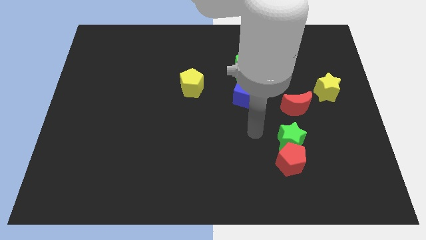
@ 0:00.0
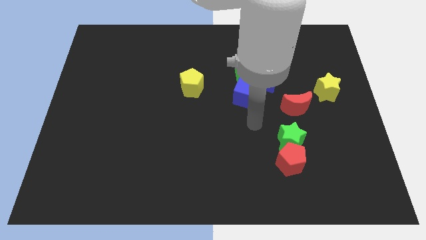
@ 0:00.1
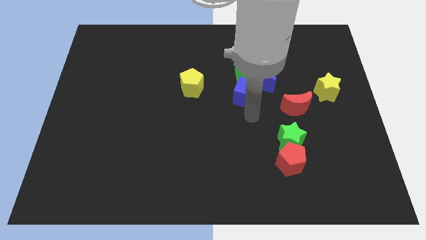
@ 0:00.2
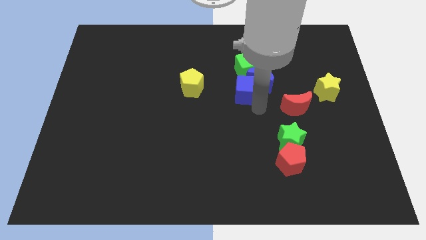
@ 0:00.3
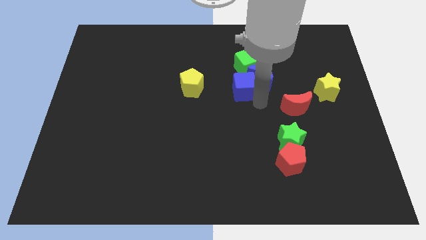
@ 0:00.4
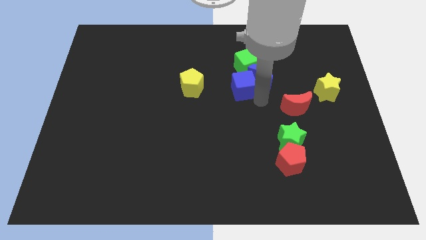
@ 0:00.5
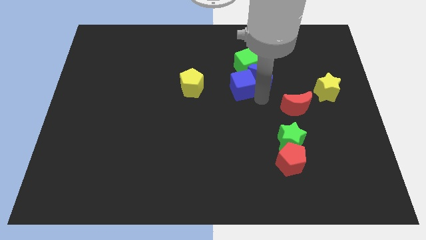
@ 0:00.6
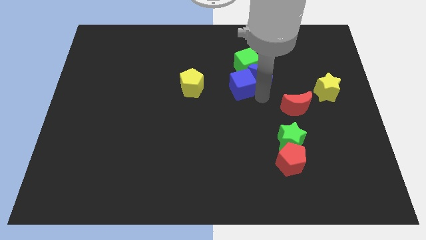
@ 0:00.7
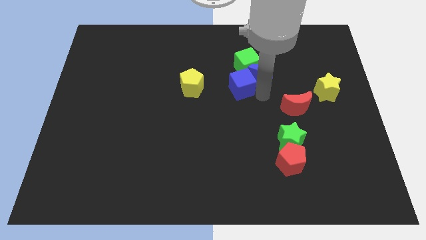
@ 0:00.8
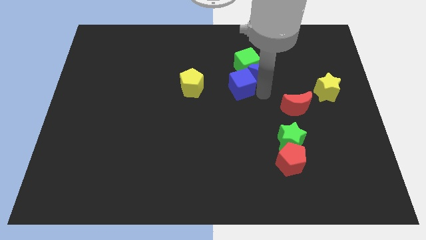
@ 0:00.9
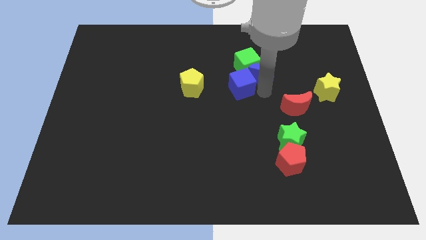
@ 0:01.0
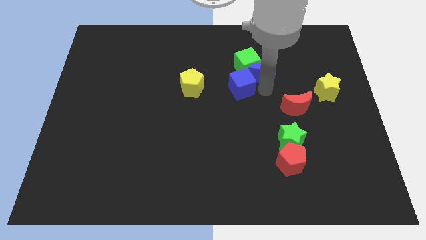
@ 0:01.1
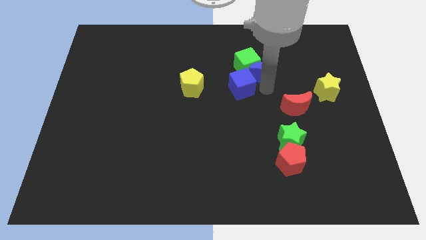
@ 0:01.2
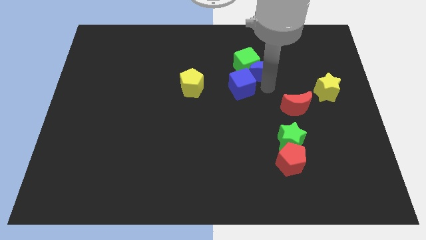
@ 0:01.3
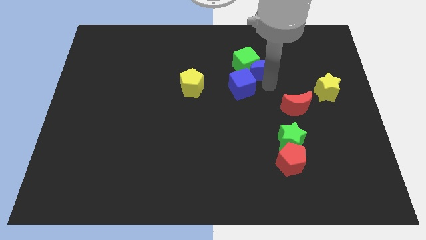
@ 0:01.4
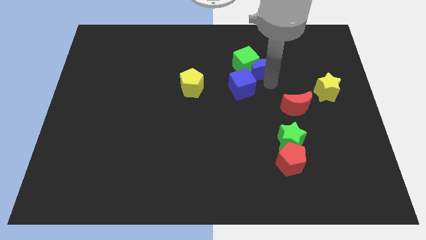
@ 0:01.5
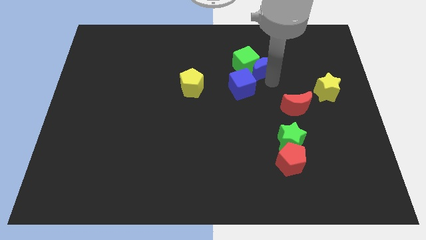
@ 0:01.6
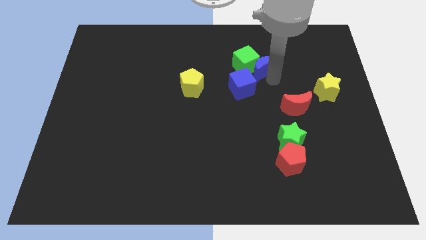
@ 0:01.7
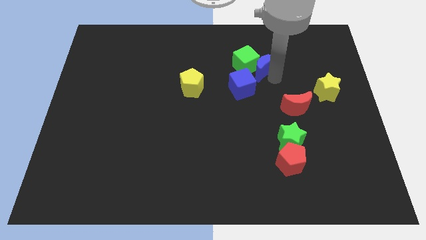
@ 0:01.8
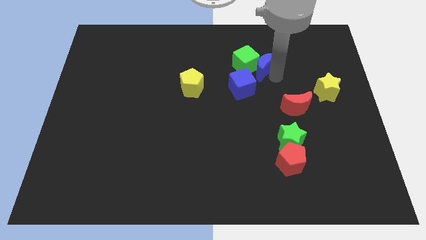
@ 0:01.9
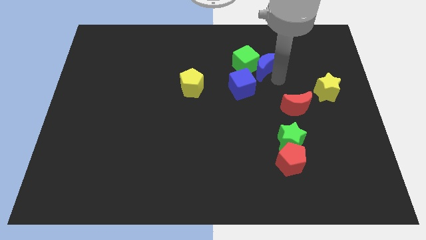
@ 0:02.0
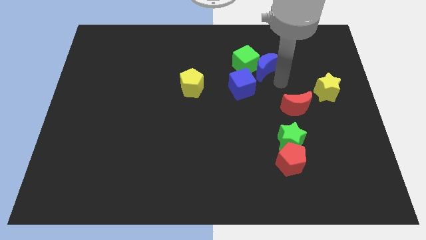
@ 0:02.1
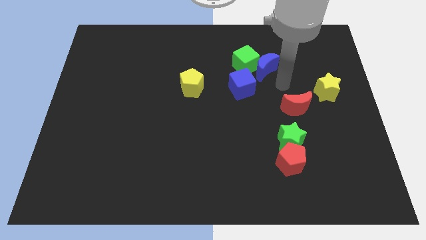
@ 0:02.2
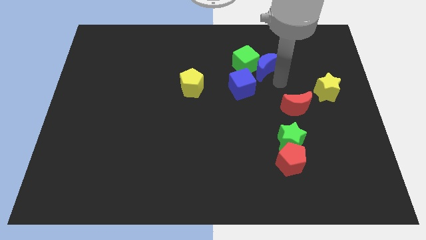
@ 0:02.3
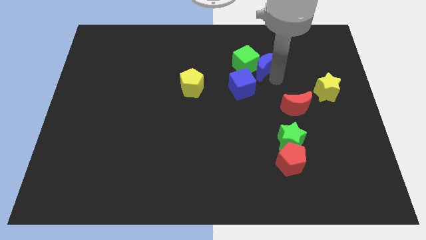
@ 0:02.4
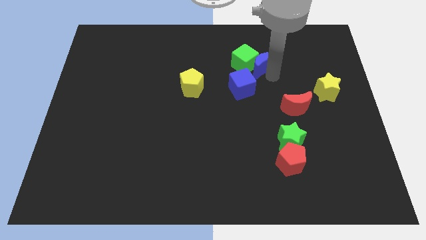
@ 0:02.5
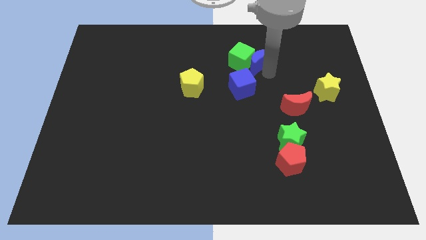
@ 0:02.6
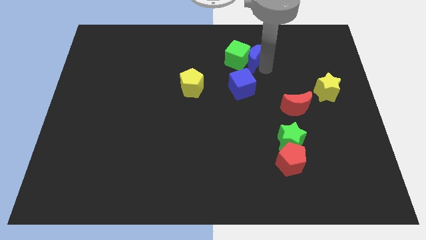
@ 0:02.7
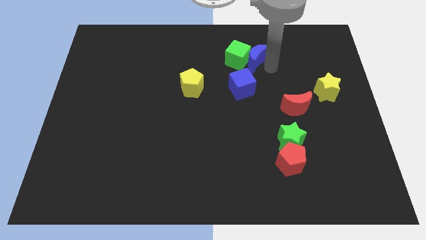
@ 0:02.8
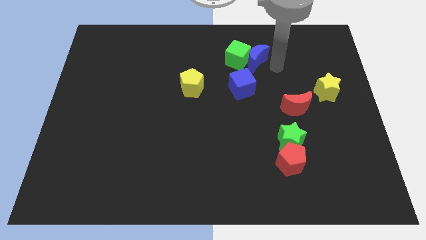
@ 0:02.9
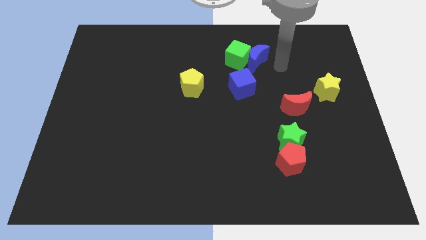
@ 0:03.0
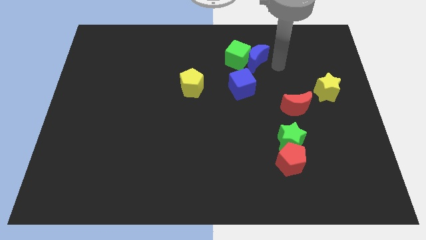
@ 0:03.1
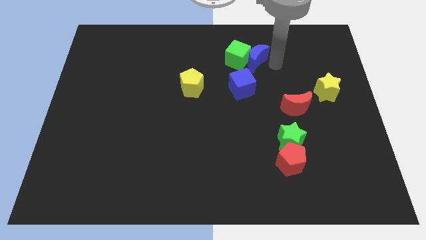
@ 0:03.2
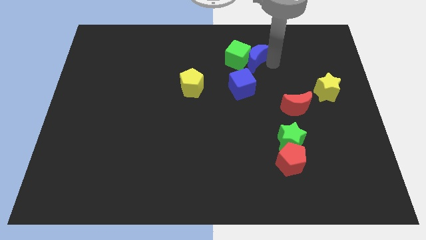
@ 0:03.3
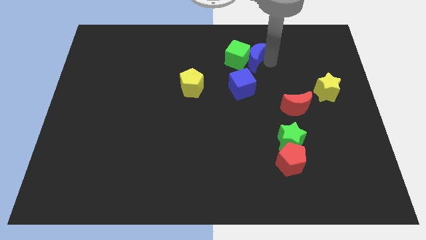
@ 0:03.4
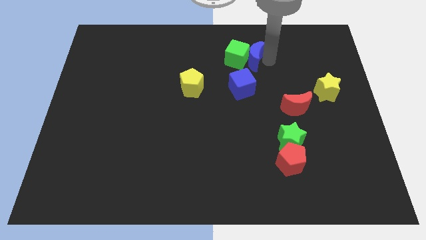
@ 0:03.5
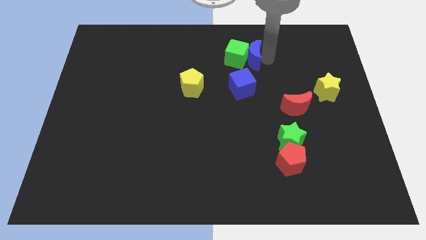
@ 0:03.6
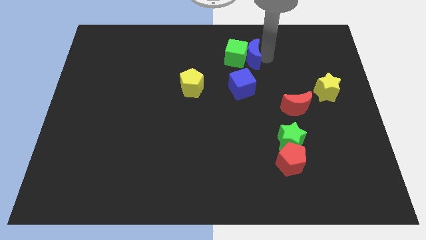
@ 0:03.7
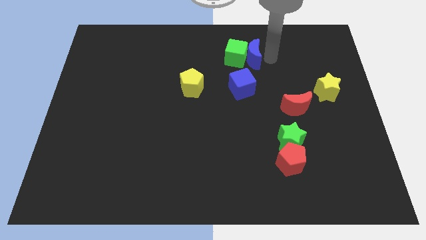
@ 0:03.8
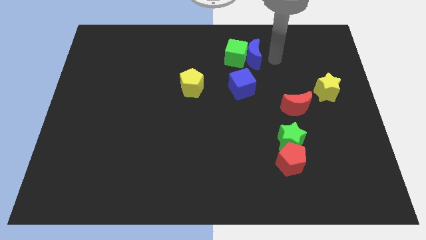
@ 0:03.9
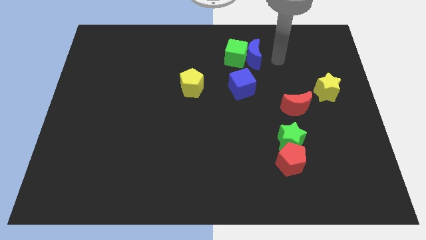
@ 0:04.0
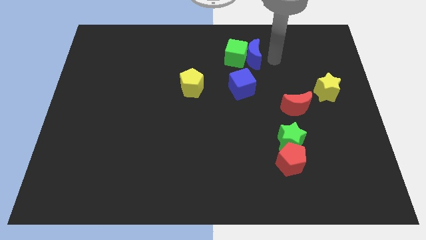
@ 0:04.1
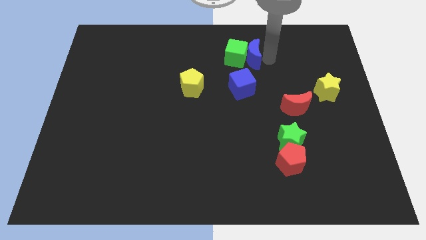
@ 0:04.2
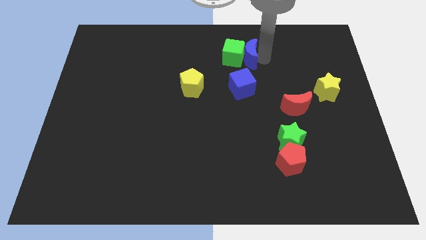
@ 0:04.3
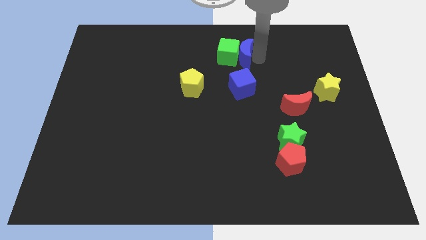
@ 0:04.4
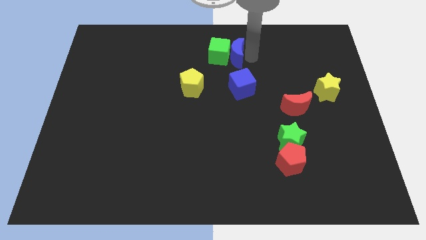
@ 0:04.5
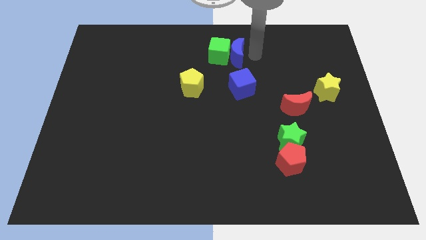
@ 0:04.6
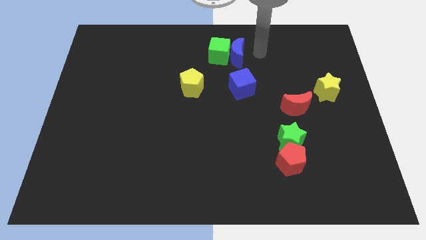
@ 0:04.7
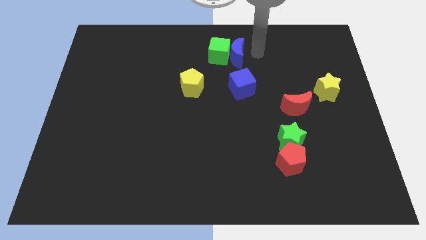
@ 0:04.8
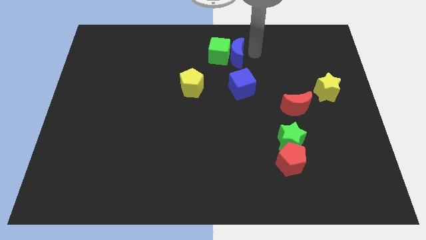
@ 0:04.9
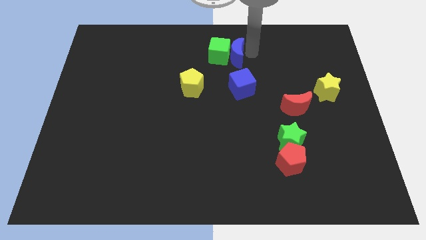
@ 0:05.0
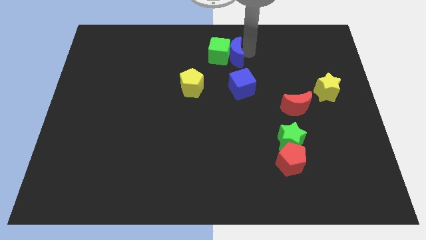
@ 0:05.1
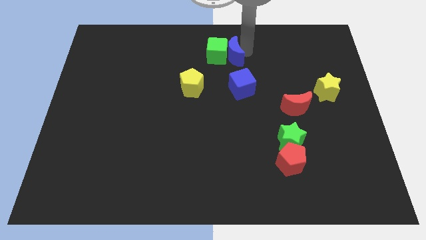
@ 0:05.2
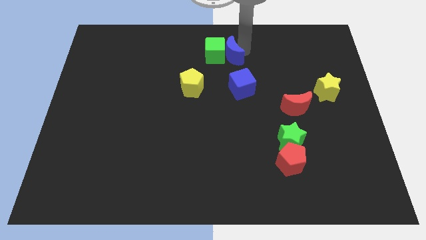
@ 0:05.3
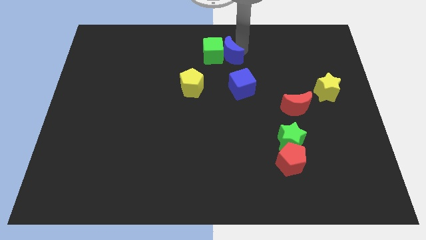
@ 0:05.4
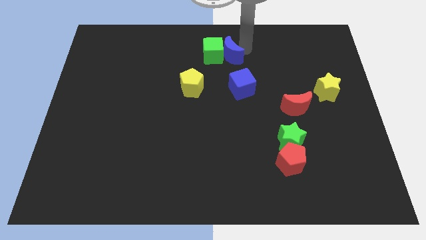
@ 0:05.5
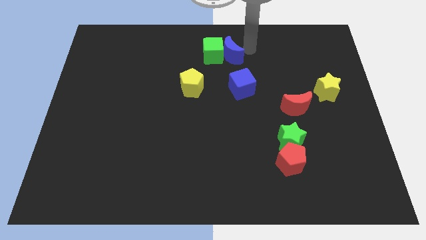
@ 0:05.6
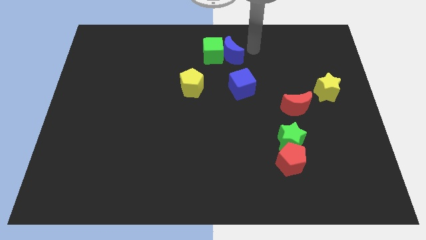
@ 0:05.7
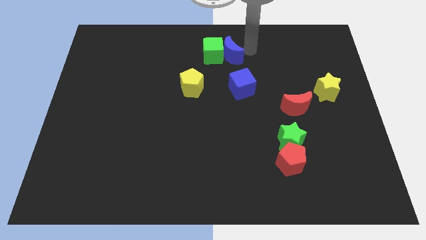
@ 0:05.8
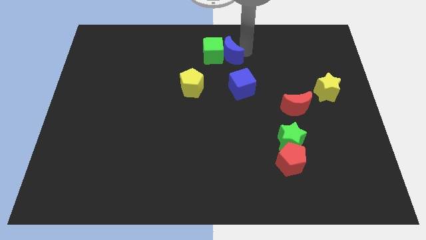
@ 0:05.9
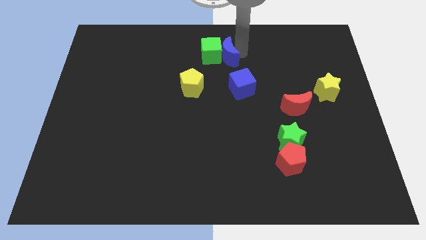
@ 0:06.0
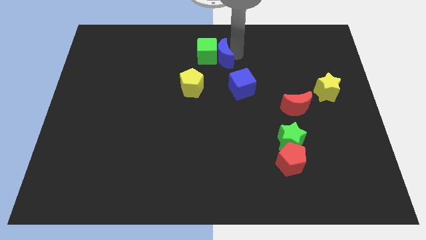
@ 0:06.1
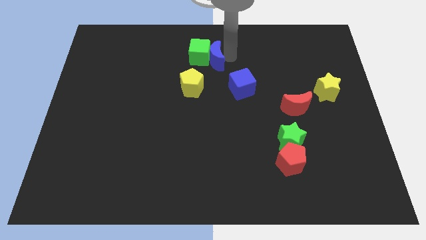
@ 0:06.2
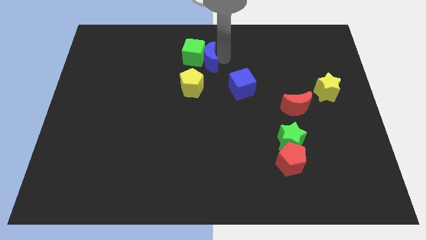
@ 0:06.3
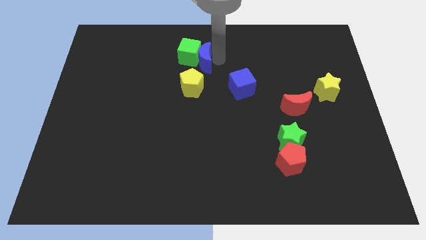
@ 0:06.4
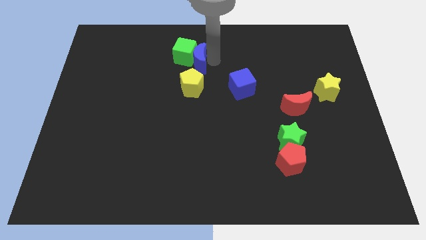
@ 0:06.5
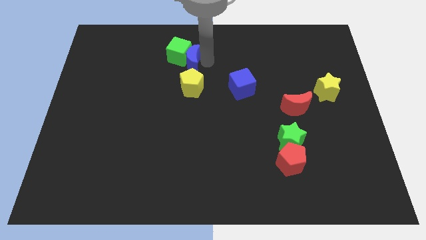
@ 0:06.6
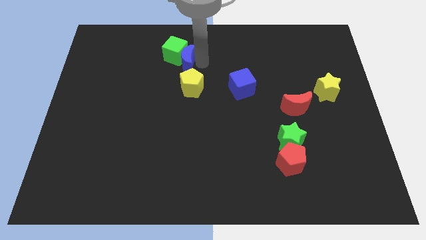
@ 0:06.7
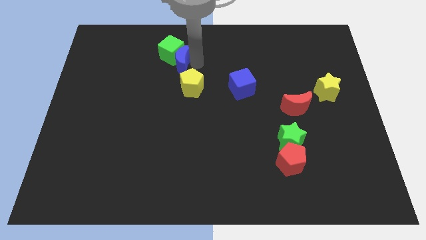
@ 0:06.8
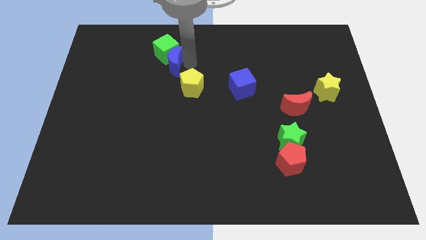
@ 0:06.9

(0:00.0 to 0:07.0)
move the blue moon to the left

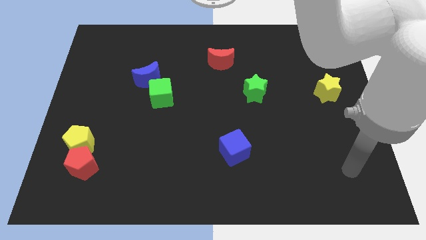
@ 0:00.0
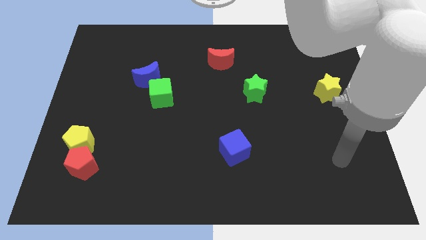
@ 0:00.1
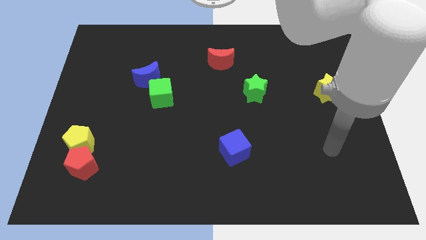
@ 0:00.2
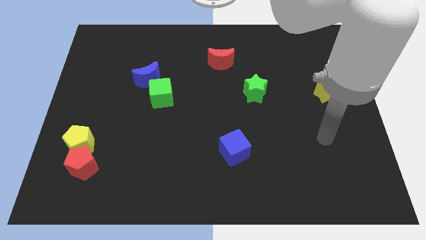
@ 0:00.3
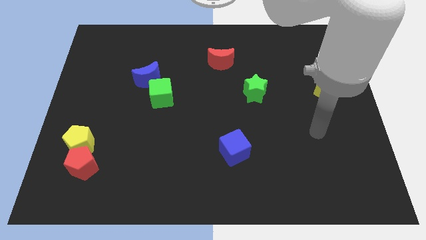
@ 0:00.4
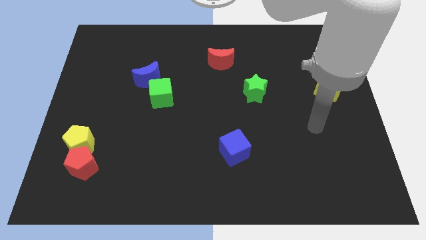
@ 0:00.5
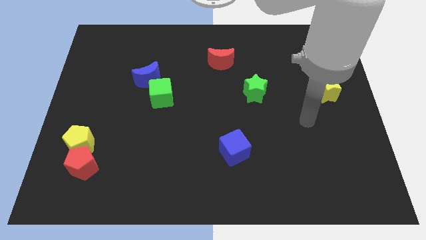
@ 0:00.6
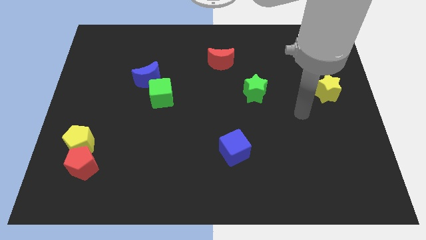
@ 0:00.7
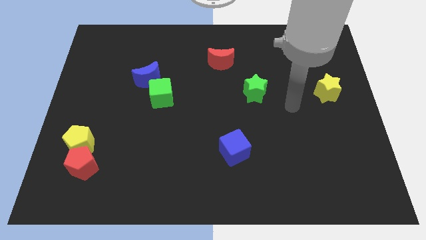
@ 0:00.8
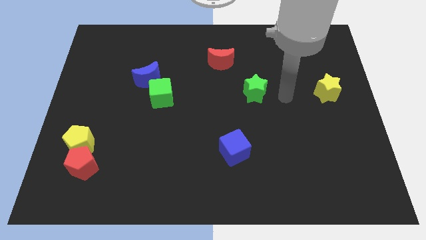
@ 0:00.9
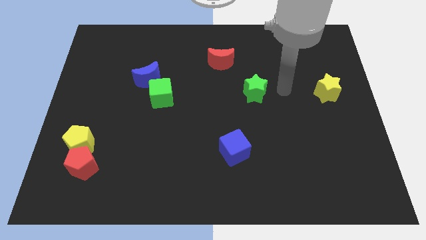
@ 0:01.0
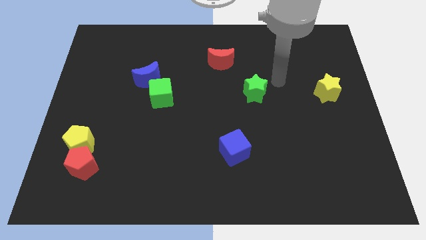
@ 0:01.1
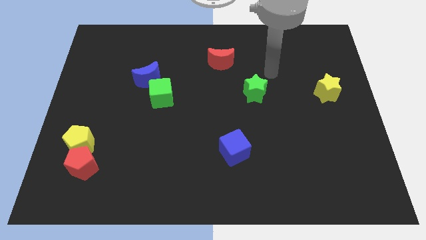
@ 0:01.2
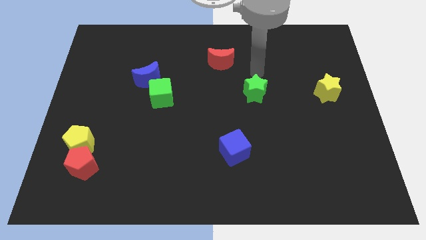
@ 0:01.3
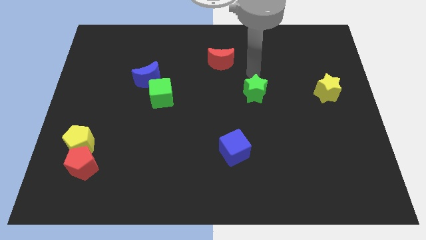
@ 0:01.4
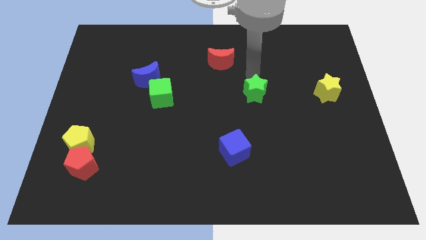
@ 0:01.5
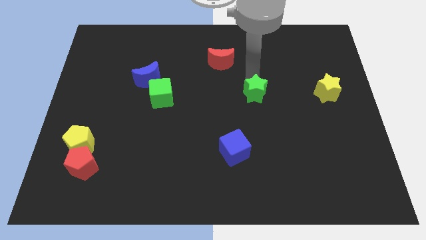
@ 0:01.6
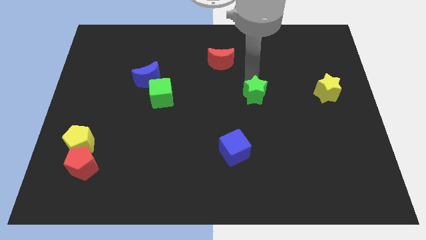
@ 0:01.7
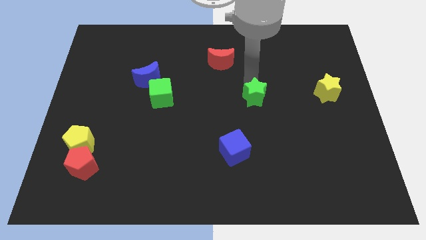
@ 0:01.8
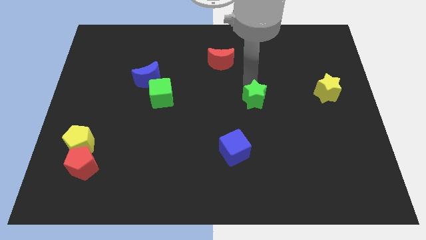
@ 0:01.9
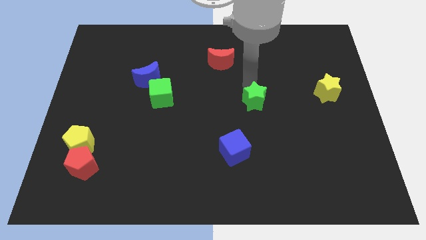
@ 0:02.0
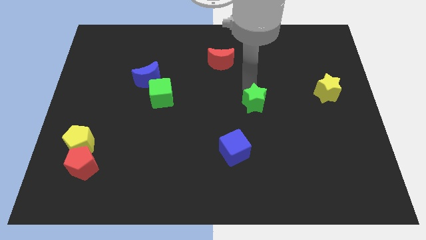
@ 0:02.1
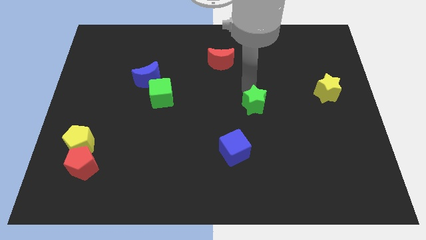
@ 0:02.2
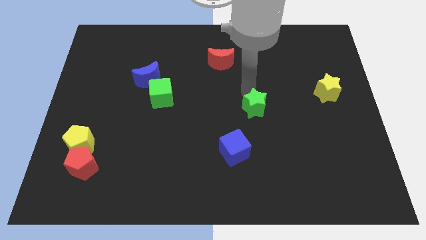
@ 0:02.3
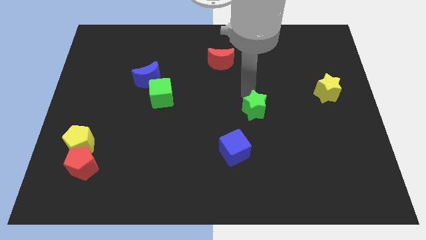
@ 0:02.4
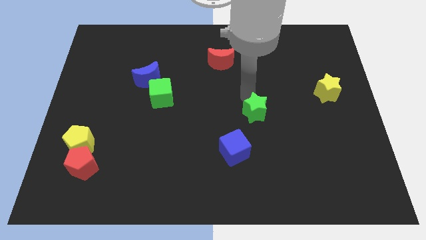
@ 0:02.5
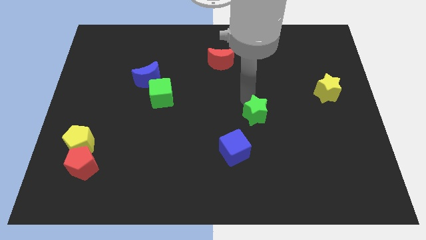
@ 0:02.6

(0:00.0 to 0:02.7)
slide the green star downwards a little
